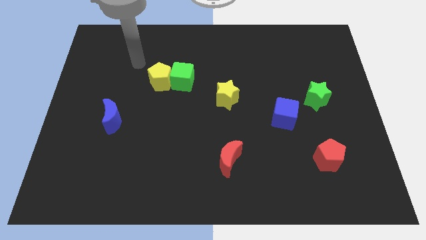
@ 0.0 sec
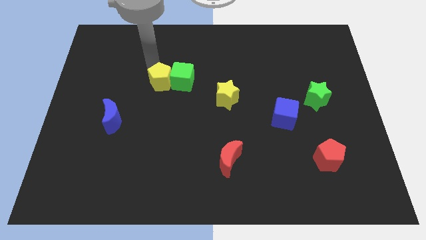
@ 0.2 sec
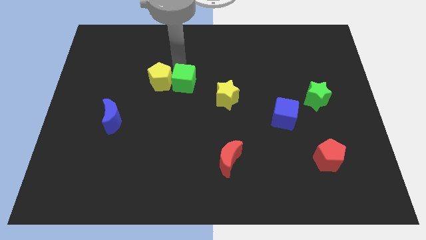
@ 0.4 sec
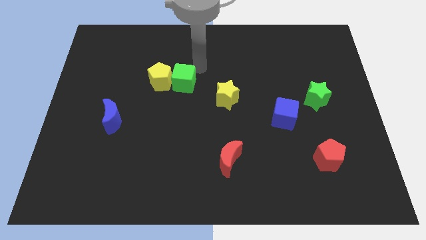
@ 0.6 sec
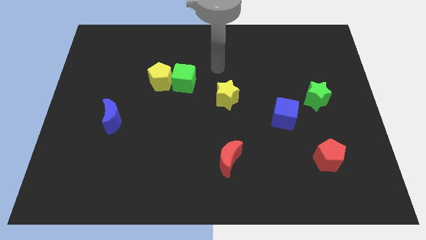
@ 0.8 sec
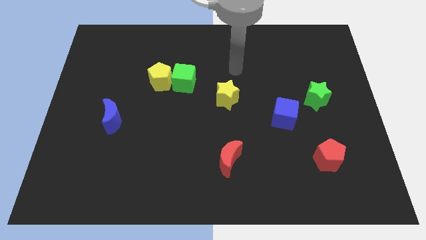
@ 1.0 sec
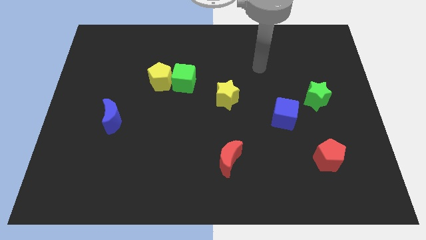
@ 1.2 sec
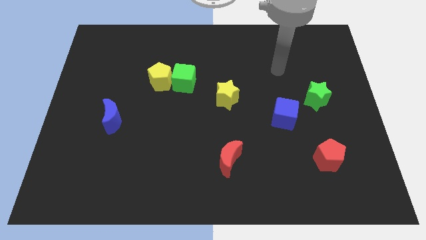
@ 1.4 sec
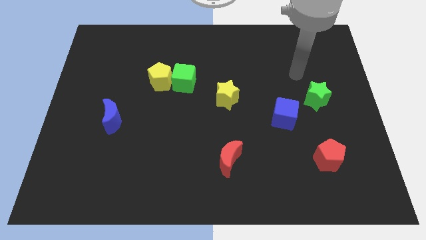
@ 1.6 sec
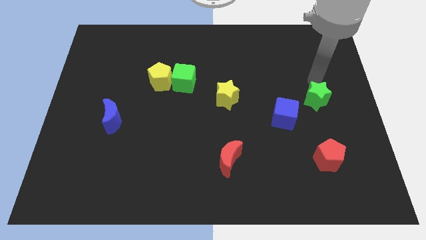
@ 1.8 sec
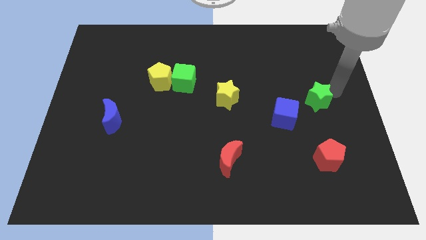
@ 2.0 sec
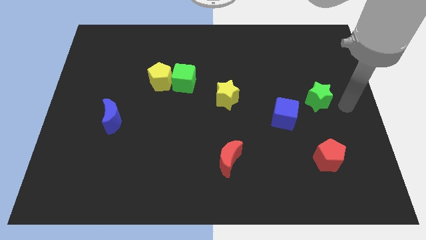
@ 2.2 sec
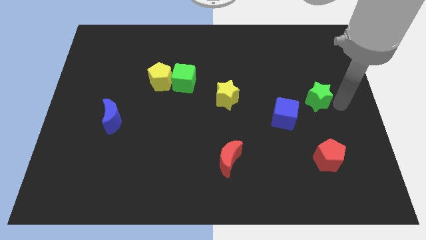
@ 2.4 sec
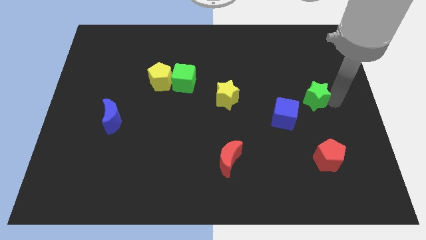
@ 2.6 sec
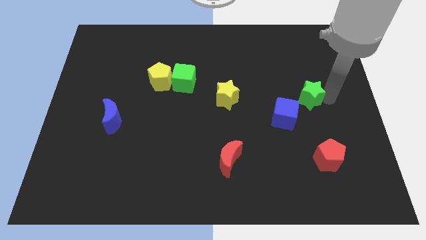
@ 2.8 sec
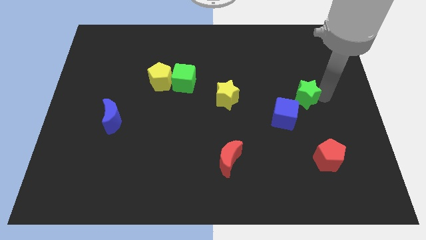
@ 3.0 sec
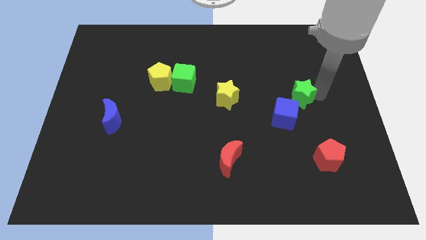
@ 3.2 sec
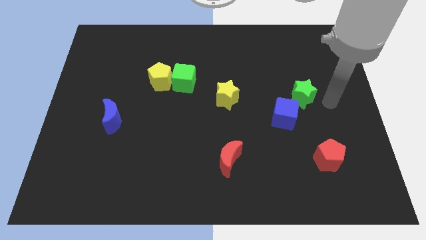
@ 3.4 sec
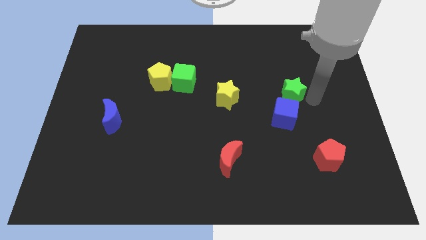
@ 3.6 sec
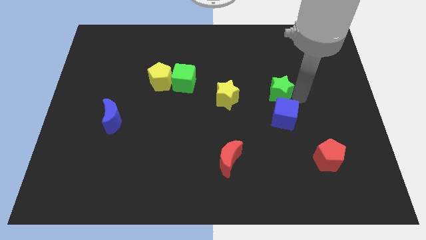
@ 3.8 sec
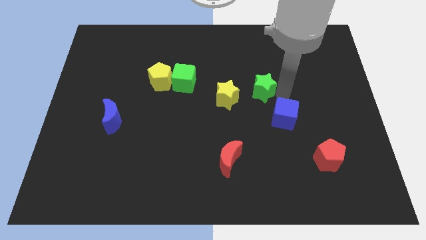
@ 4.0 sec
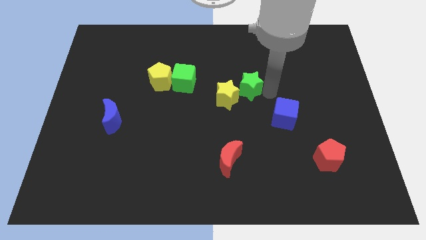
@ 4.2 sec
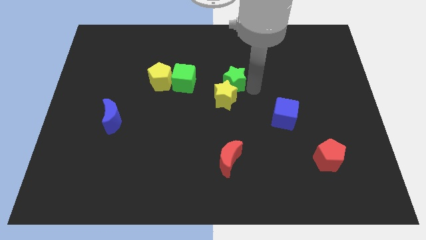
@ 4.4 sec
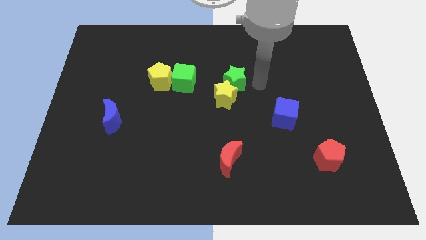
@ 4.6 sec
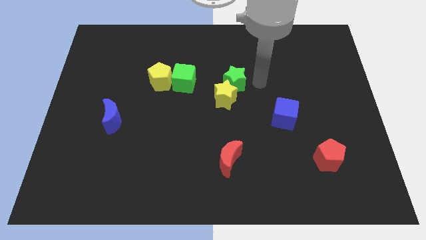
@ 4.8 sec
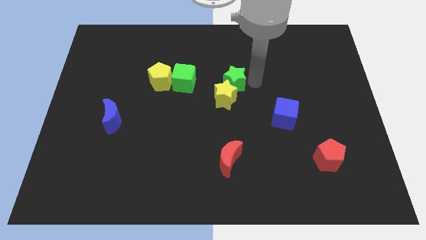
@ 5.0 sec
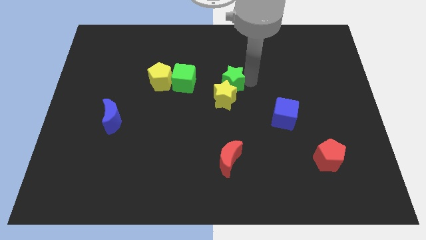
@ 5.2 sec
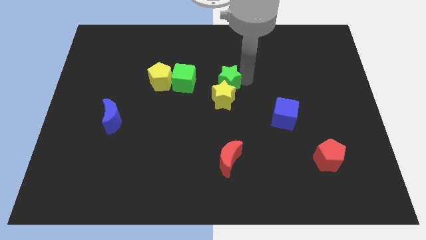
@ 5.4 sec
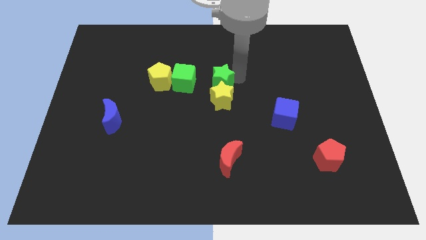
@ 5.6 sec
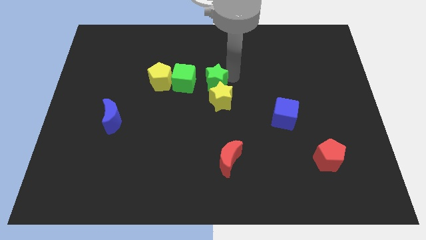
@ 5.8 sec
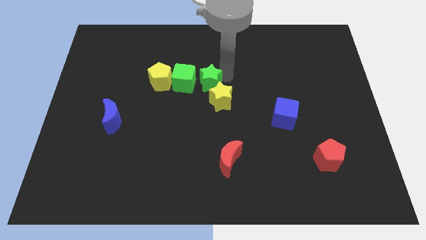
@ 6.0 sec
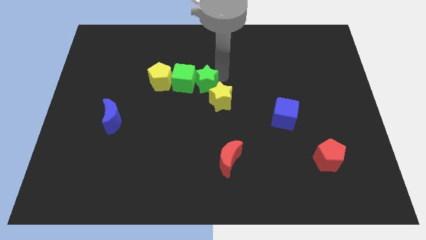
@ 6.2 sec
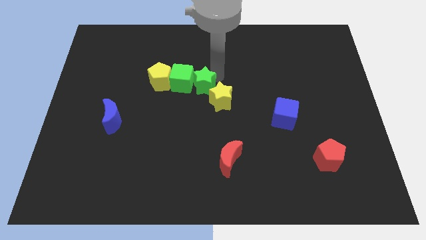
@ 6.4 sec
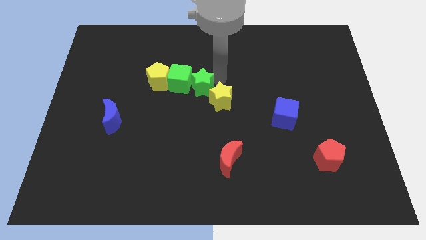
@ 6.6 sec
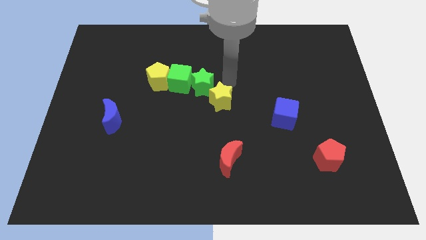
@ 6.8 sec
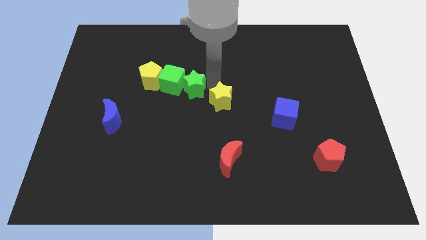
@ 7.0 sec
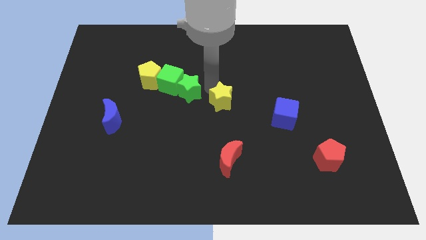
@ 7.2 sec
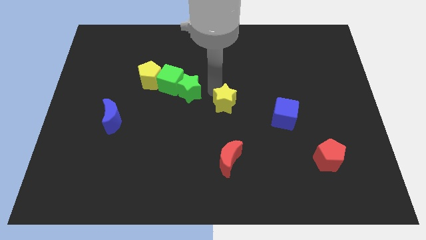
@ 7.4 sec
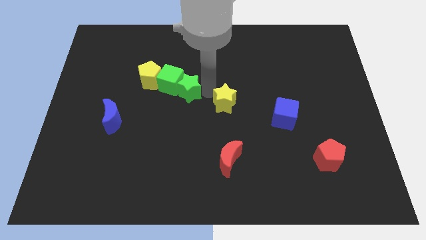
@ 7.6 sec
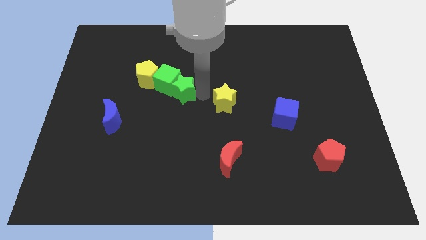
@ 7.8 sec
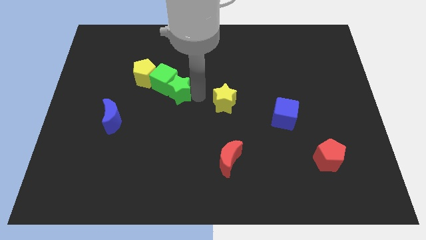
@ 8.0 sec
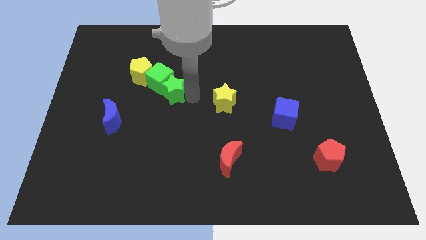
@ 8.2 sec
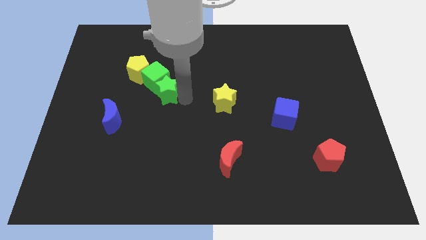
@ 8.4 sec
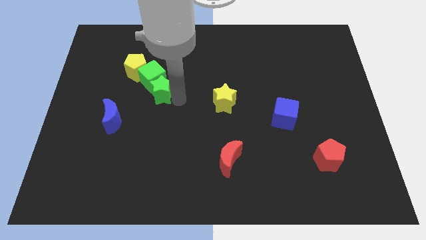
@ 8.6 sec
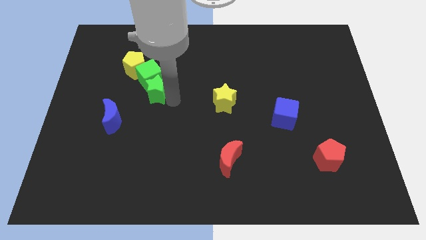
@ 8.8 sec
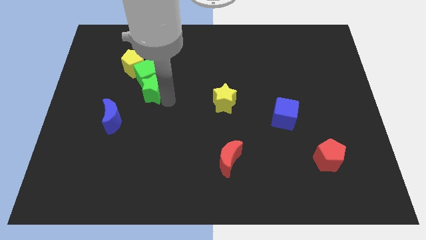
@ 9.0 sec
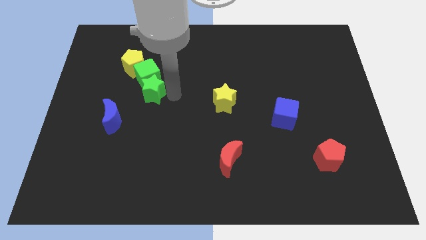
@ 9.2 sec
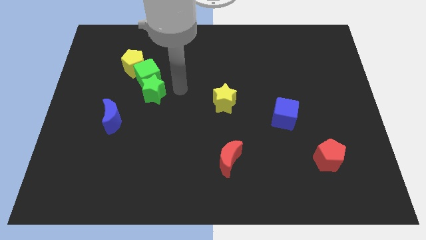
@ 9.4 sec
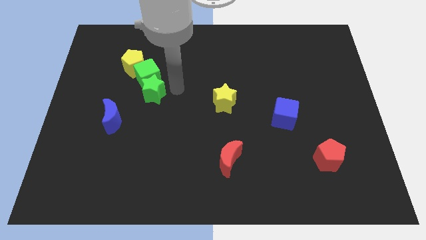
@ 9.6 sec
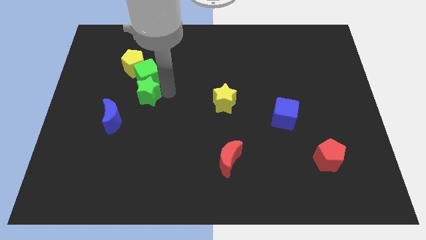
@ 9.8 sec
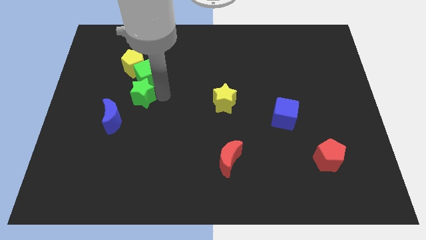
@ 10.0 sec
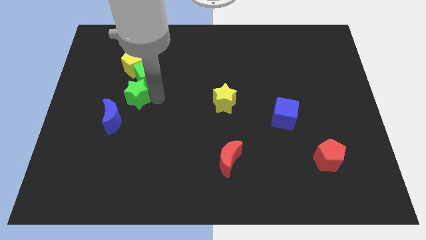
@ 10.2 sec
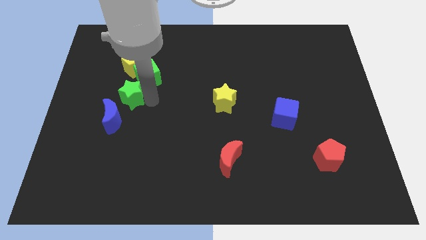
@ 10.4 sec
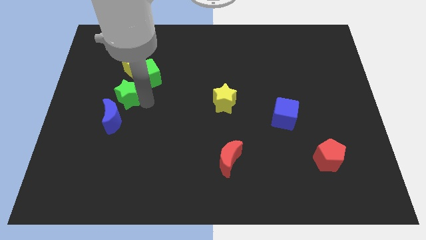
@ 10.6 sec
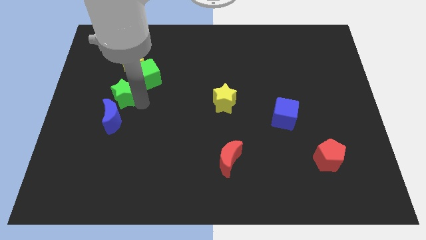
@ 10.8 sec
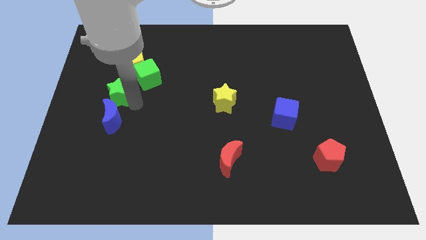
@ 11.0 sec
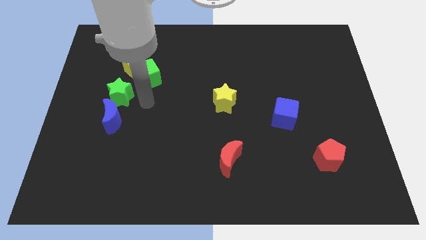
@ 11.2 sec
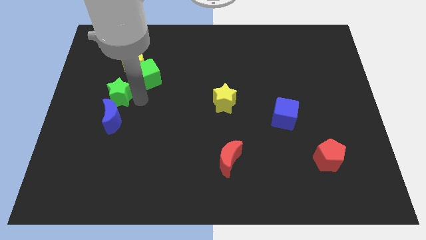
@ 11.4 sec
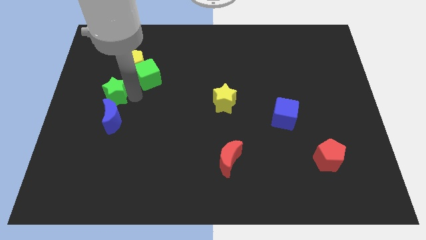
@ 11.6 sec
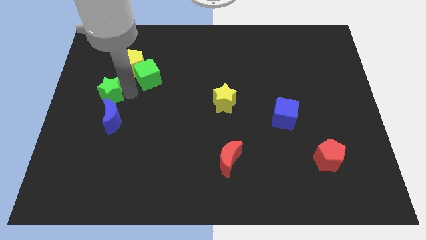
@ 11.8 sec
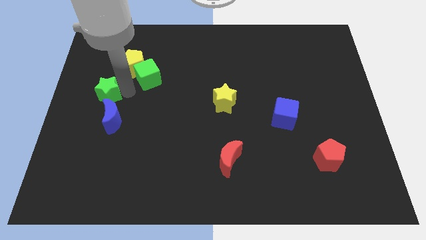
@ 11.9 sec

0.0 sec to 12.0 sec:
slide the green star to the left side

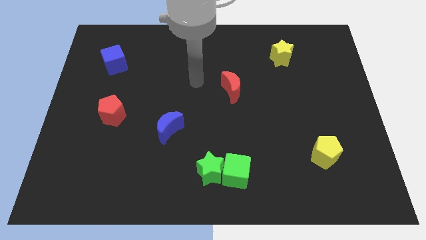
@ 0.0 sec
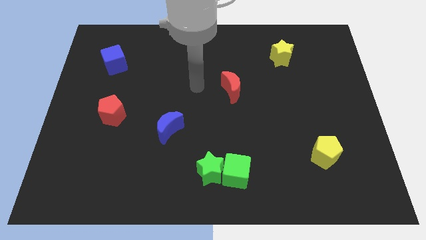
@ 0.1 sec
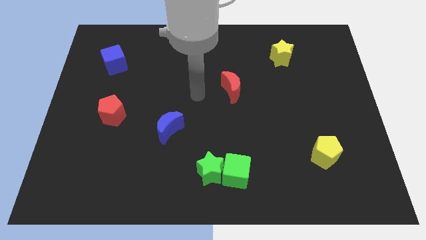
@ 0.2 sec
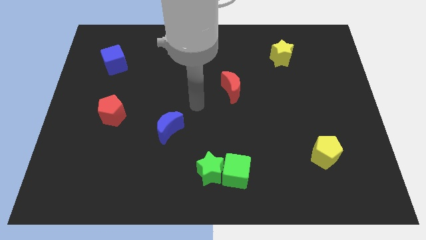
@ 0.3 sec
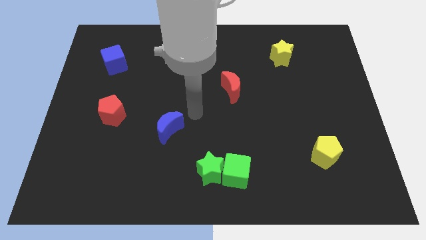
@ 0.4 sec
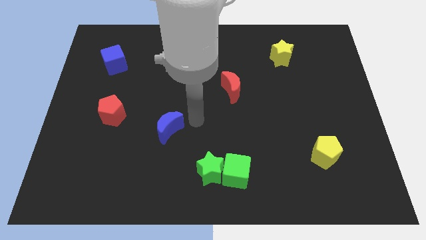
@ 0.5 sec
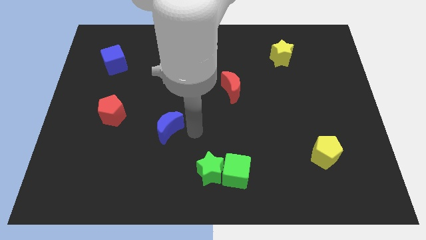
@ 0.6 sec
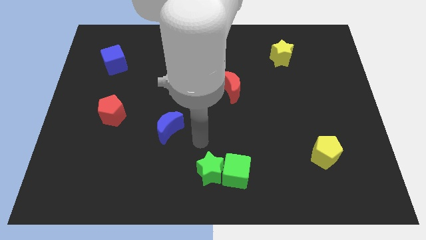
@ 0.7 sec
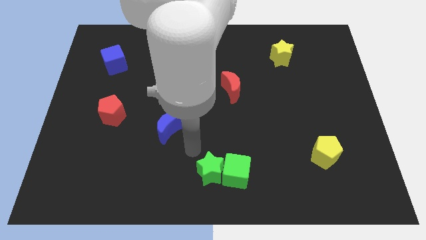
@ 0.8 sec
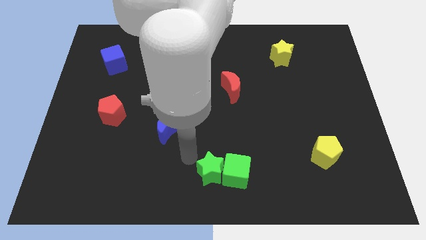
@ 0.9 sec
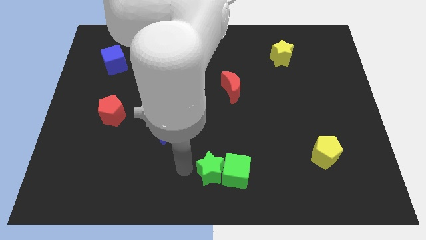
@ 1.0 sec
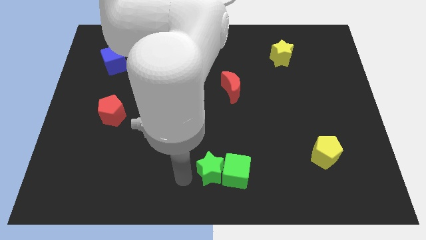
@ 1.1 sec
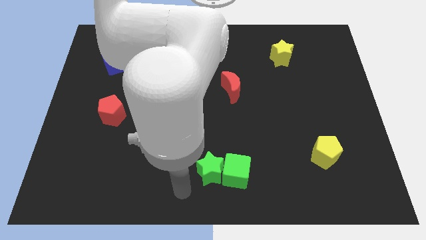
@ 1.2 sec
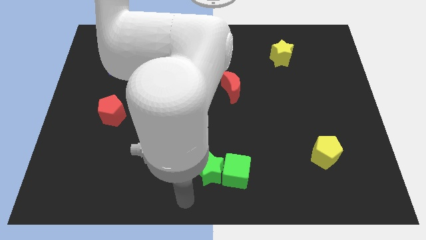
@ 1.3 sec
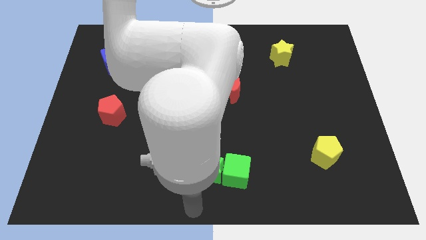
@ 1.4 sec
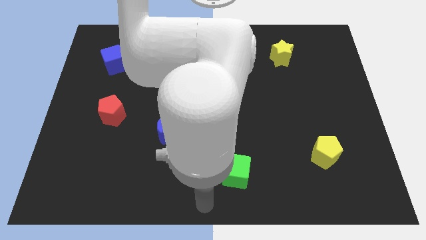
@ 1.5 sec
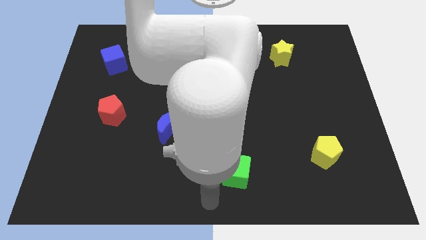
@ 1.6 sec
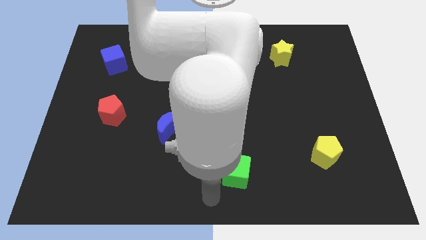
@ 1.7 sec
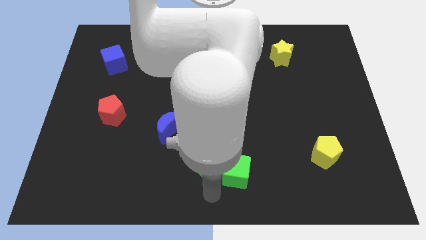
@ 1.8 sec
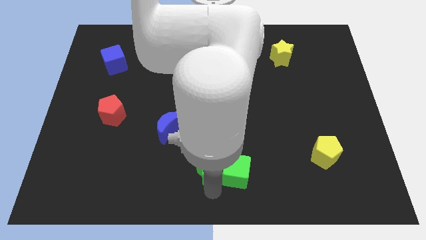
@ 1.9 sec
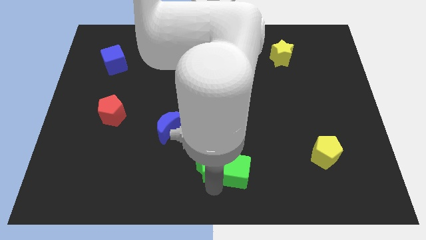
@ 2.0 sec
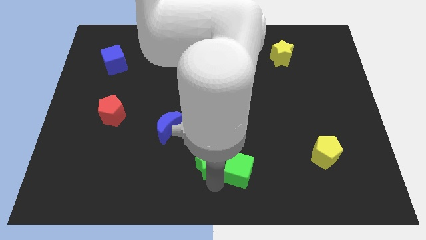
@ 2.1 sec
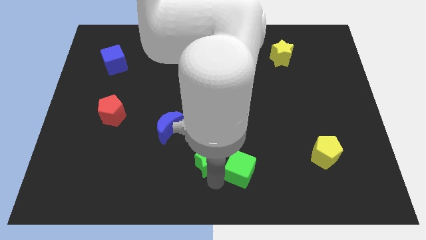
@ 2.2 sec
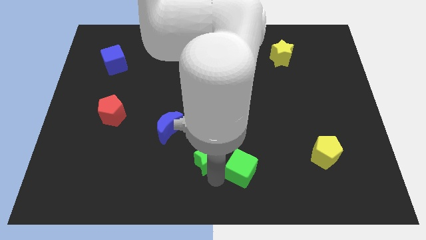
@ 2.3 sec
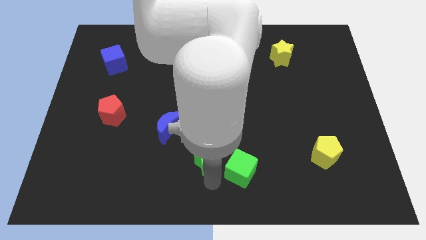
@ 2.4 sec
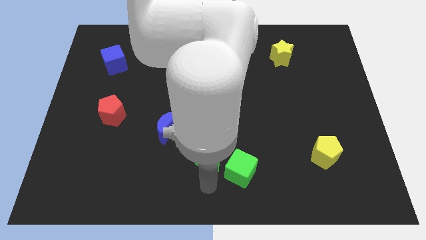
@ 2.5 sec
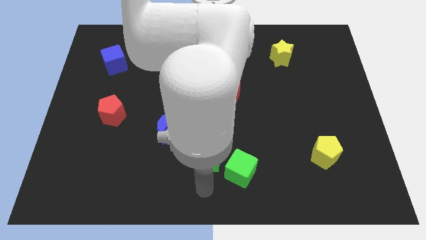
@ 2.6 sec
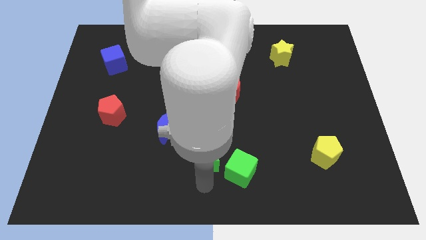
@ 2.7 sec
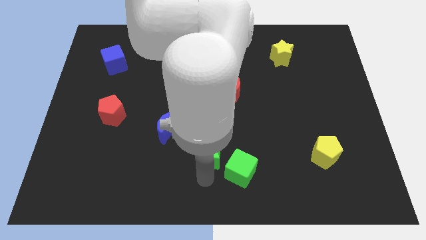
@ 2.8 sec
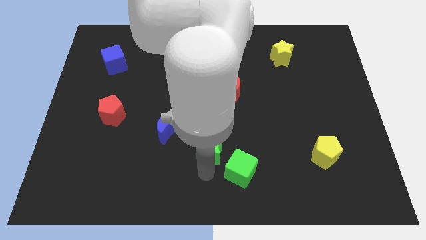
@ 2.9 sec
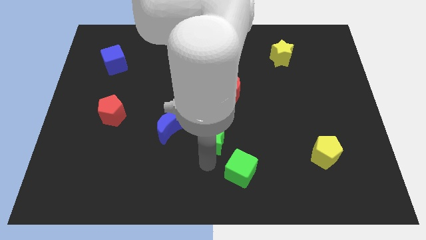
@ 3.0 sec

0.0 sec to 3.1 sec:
slide the green star to the center of the board
